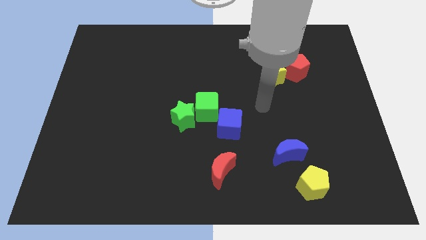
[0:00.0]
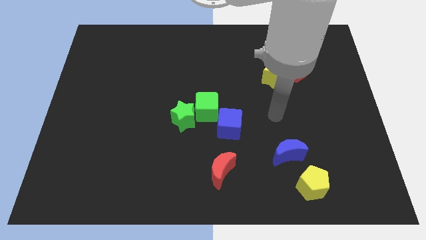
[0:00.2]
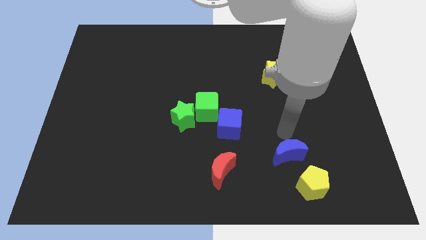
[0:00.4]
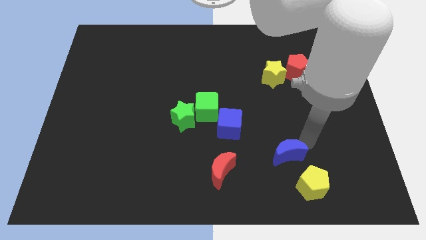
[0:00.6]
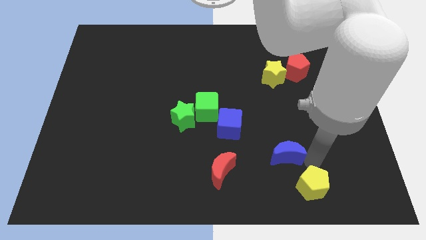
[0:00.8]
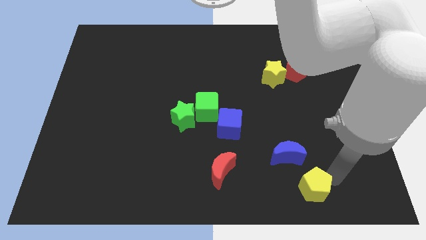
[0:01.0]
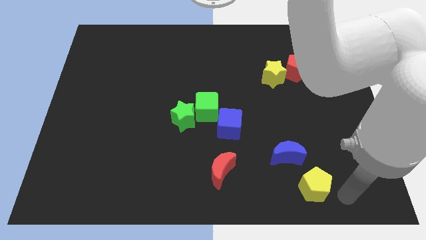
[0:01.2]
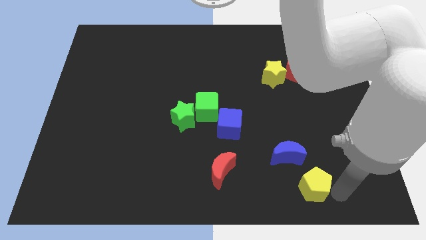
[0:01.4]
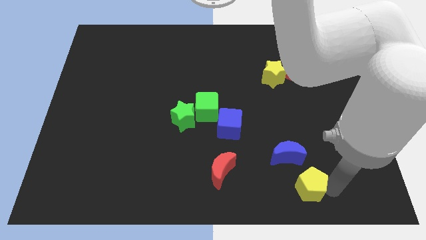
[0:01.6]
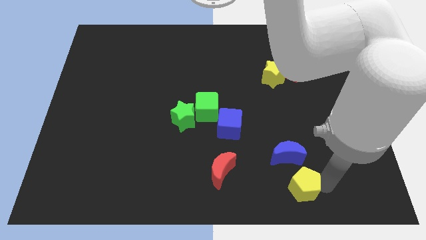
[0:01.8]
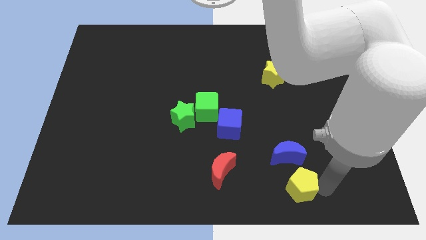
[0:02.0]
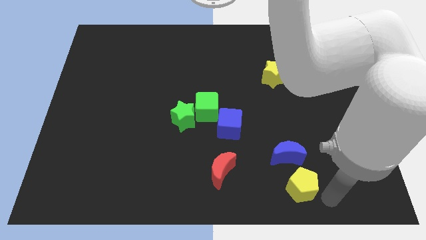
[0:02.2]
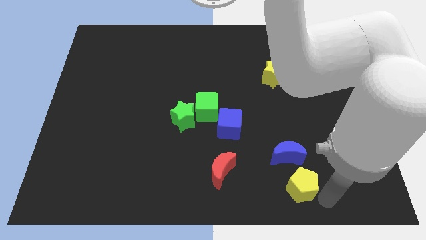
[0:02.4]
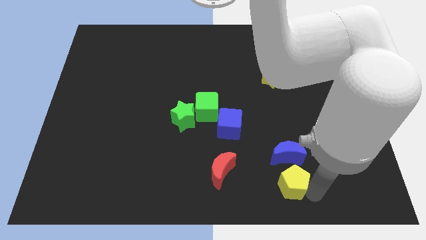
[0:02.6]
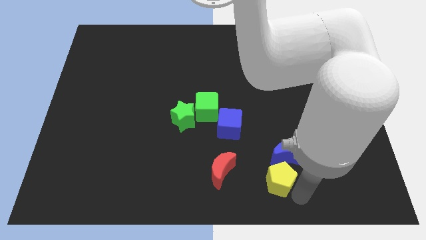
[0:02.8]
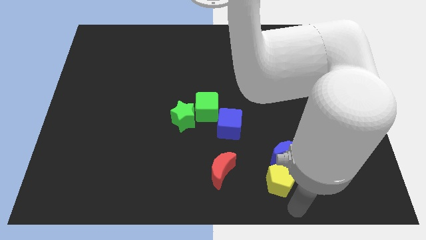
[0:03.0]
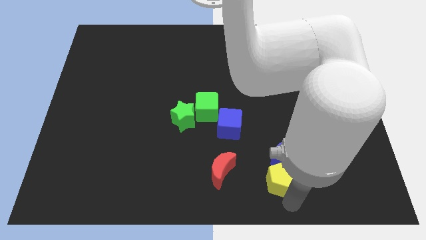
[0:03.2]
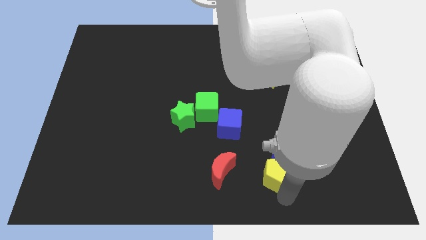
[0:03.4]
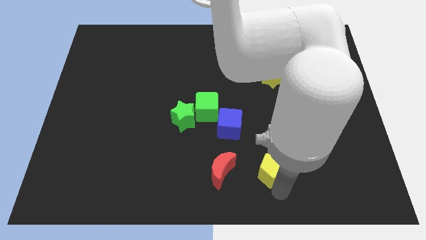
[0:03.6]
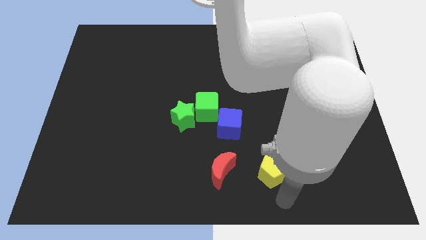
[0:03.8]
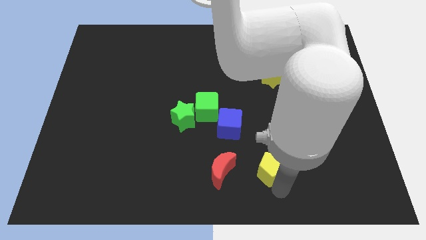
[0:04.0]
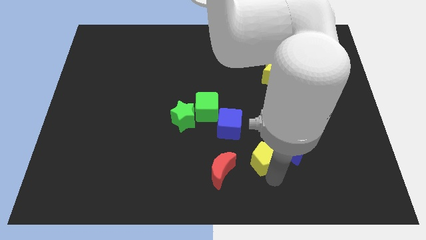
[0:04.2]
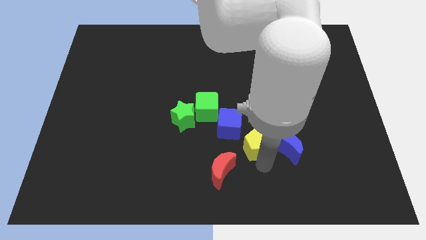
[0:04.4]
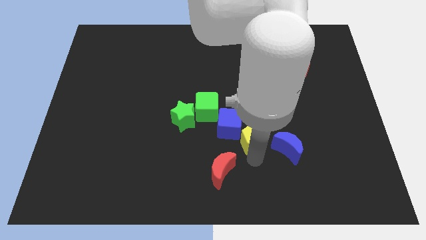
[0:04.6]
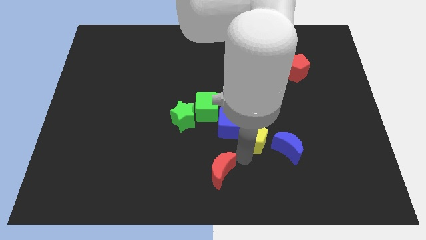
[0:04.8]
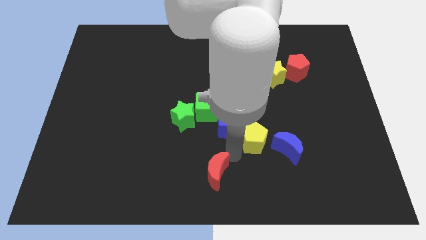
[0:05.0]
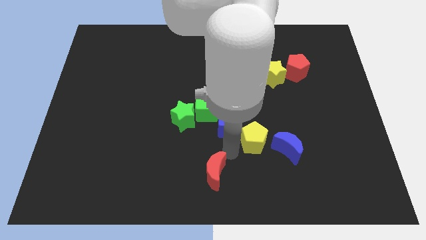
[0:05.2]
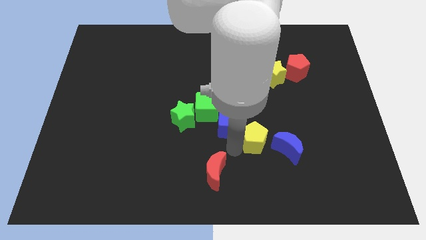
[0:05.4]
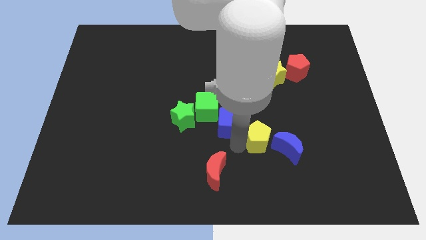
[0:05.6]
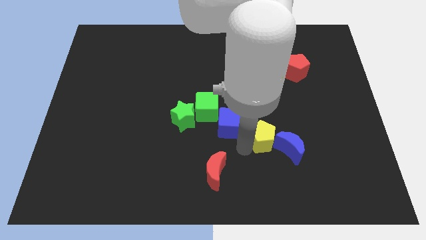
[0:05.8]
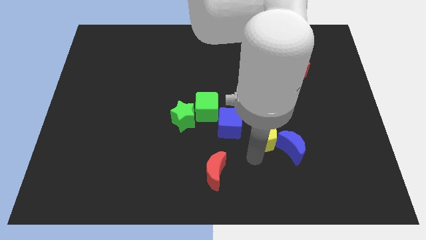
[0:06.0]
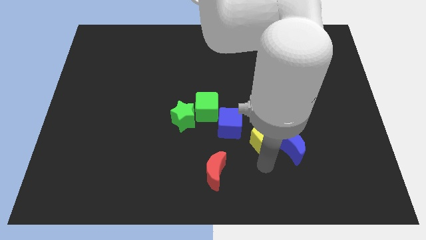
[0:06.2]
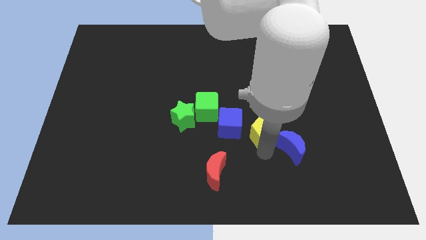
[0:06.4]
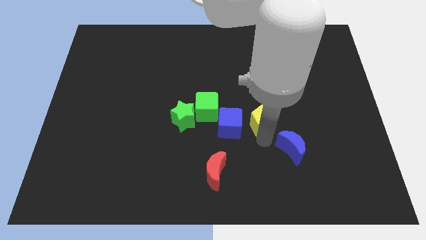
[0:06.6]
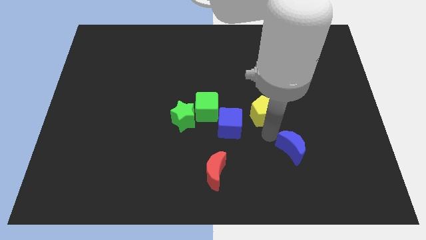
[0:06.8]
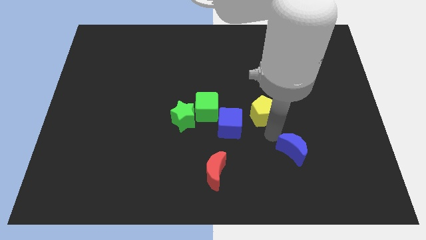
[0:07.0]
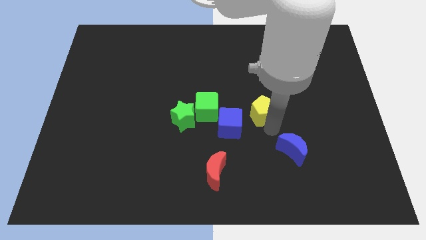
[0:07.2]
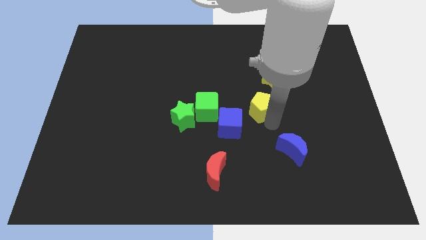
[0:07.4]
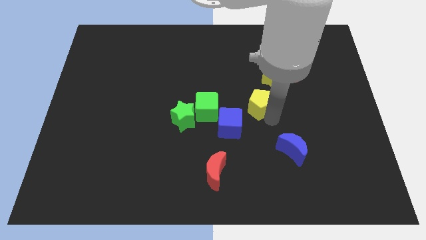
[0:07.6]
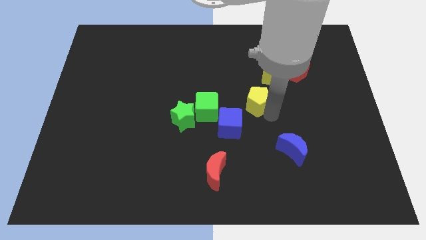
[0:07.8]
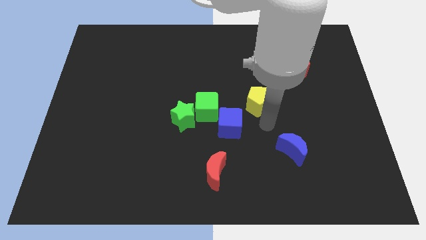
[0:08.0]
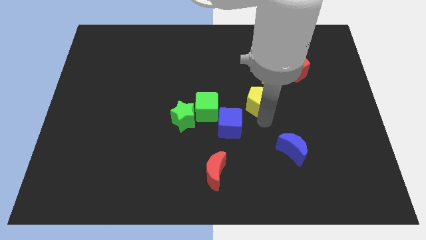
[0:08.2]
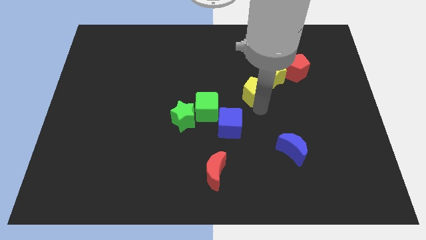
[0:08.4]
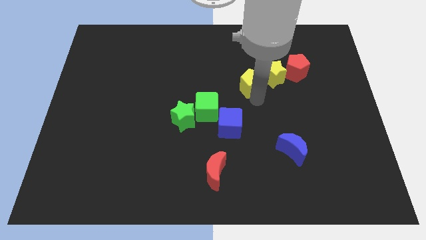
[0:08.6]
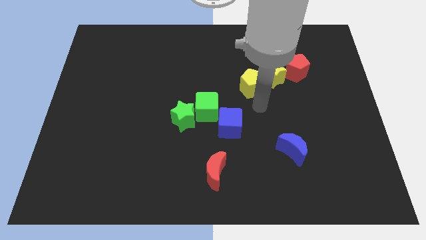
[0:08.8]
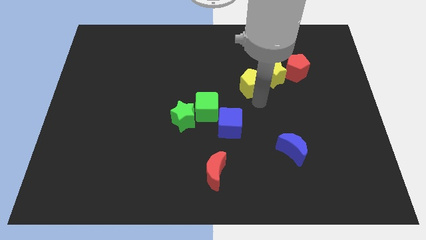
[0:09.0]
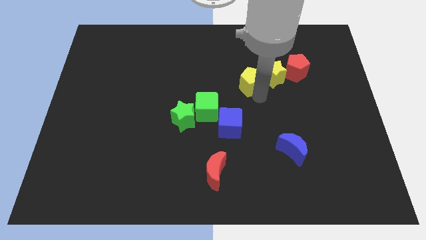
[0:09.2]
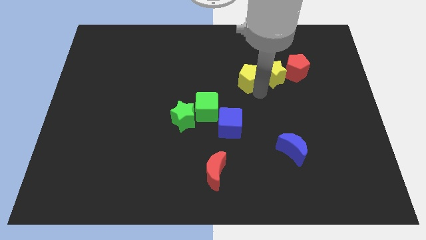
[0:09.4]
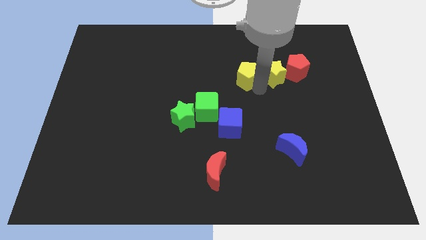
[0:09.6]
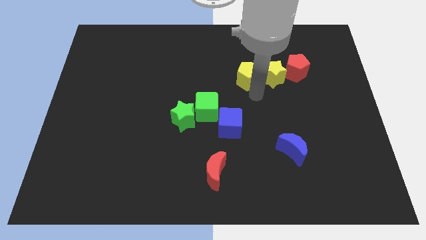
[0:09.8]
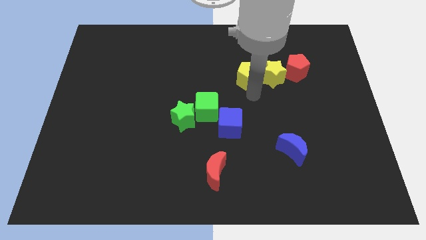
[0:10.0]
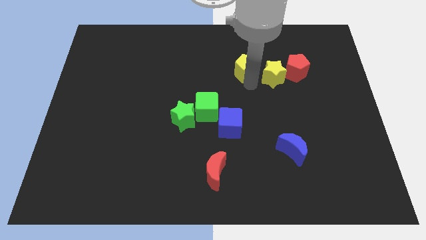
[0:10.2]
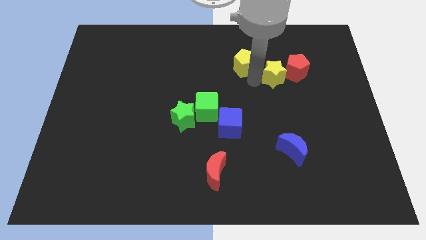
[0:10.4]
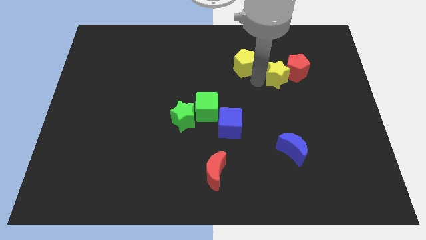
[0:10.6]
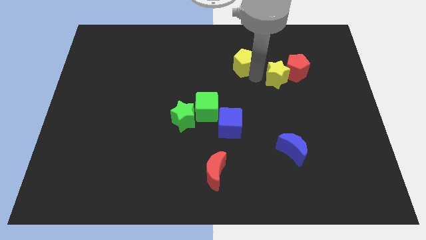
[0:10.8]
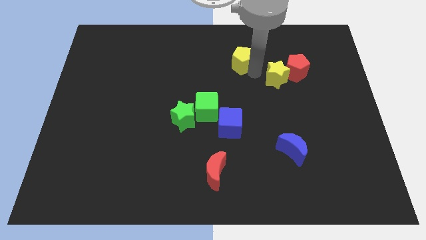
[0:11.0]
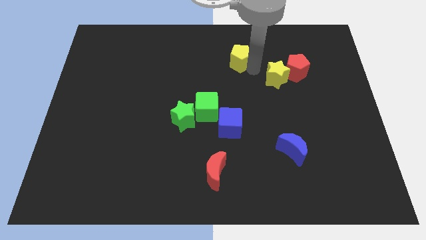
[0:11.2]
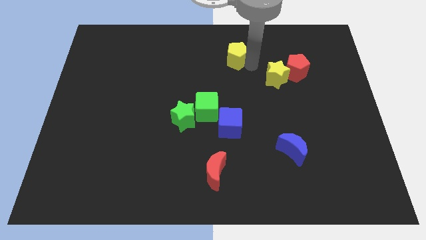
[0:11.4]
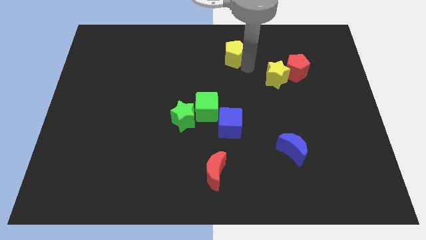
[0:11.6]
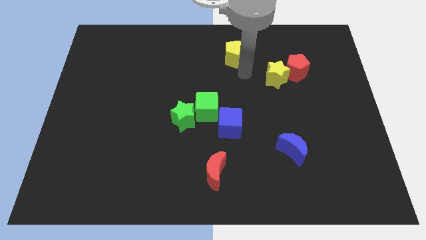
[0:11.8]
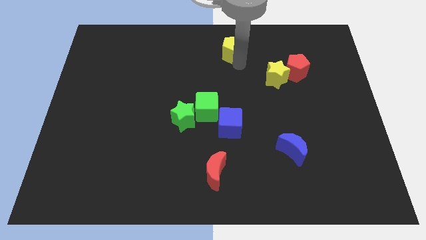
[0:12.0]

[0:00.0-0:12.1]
put the yellow pentagon to the towards your base
